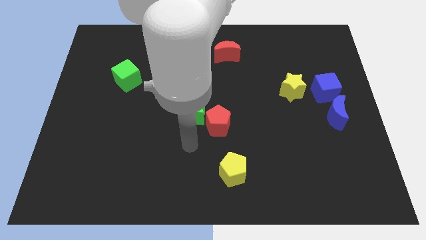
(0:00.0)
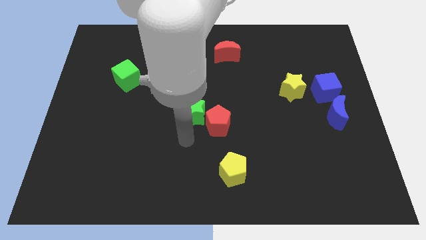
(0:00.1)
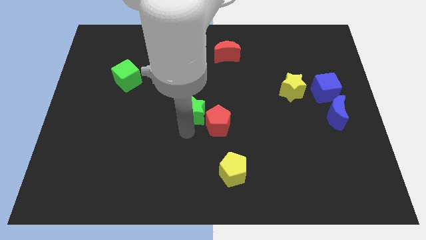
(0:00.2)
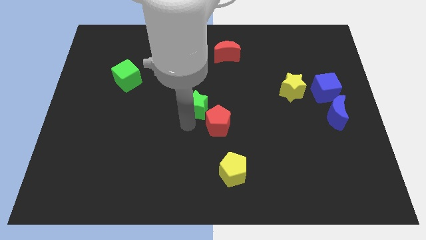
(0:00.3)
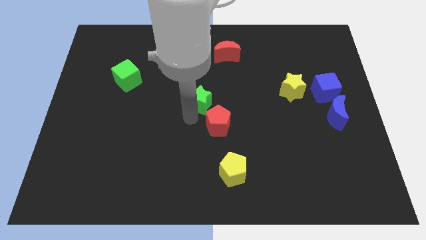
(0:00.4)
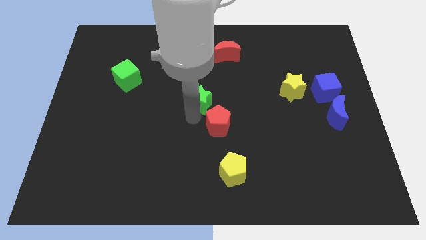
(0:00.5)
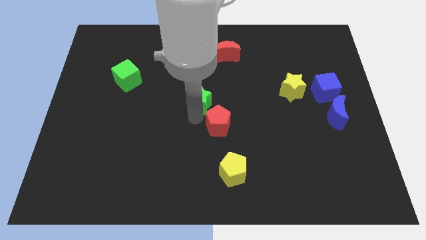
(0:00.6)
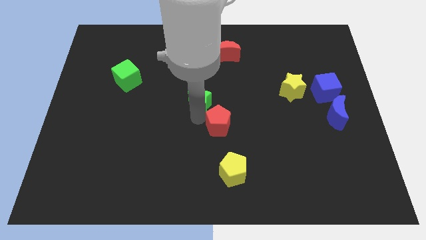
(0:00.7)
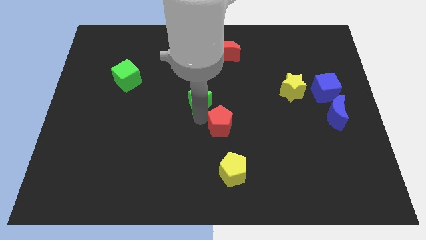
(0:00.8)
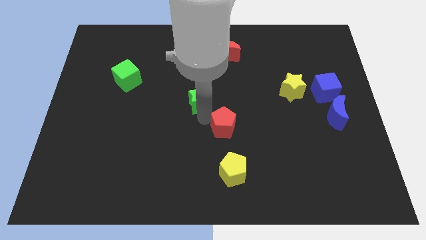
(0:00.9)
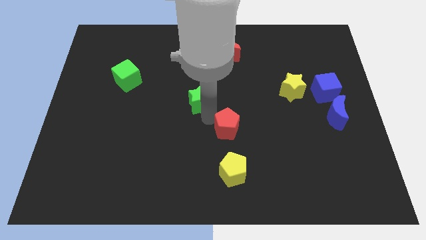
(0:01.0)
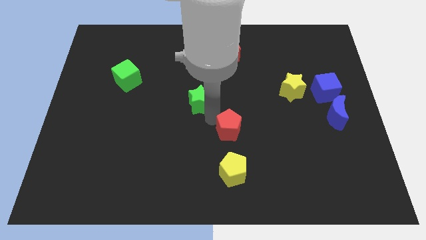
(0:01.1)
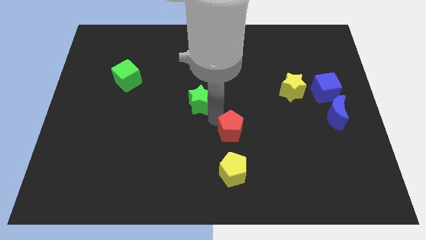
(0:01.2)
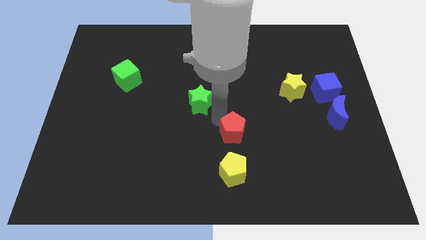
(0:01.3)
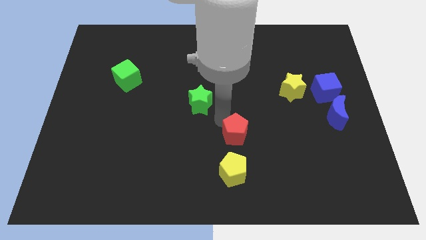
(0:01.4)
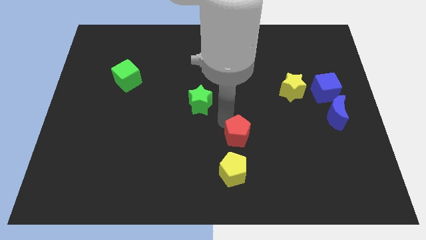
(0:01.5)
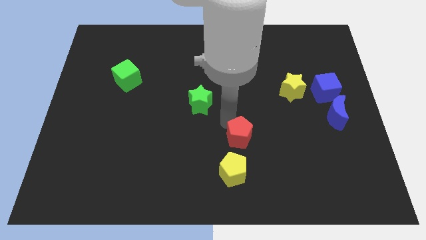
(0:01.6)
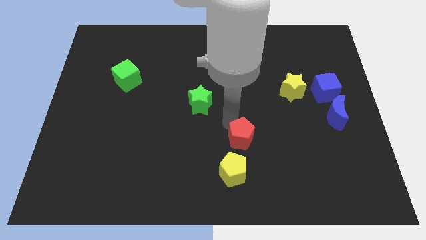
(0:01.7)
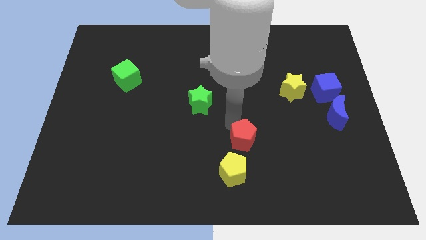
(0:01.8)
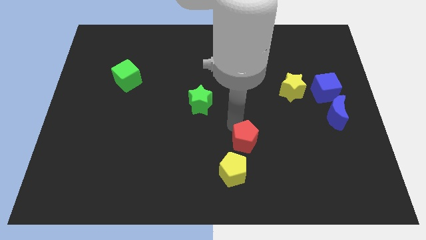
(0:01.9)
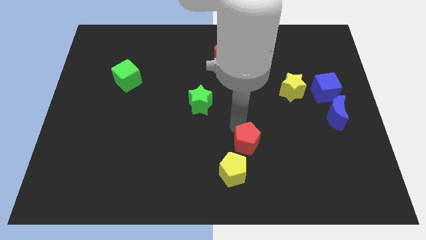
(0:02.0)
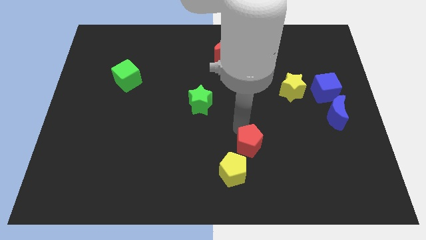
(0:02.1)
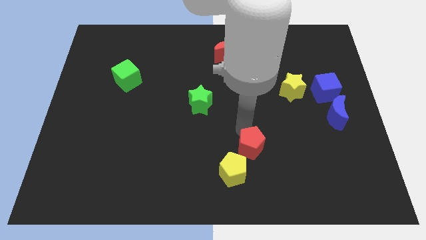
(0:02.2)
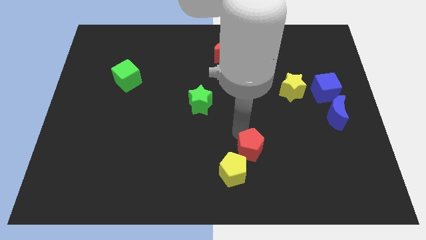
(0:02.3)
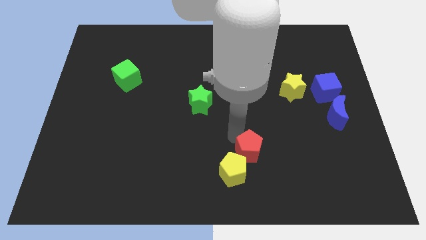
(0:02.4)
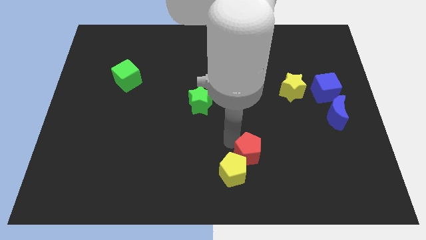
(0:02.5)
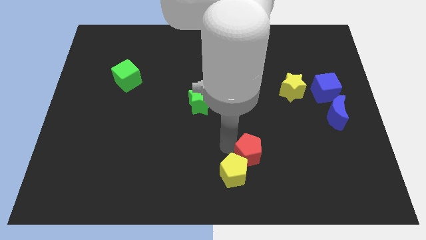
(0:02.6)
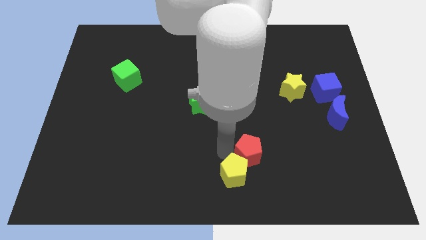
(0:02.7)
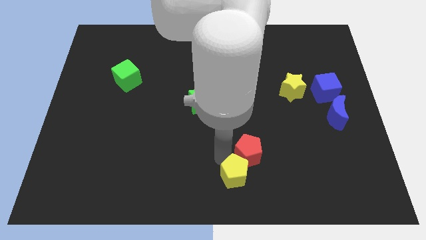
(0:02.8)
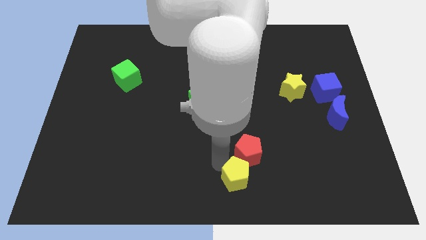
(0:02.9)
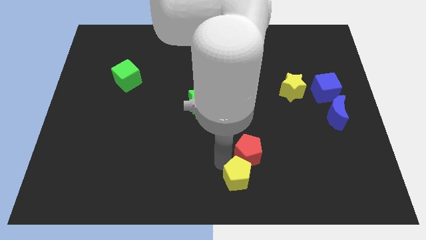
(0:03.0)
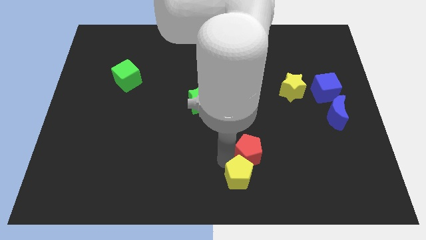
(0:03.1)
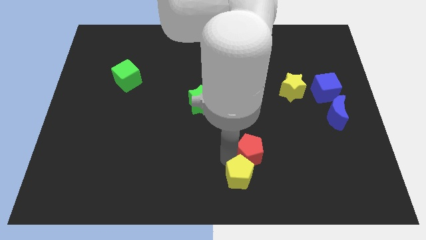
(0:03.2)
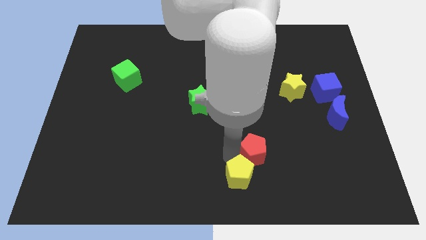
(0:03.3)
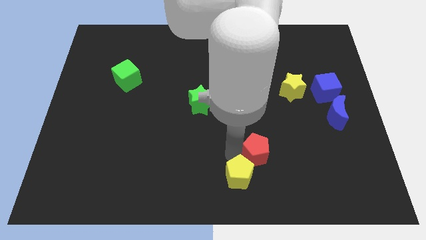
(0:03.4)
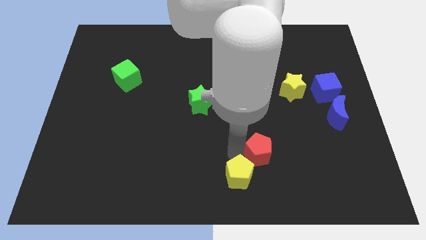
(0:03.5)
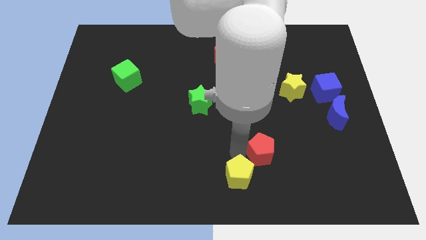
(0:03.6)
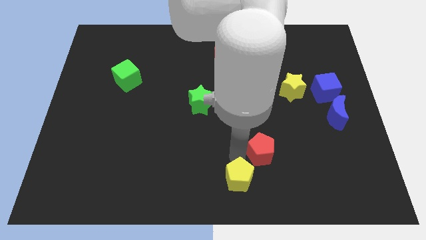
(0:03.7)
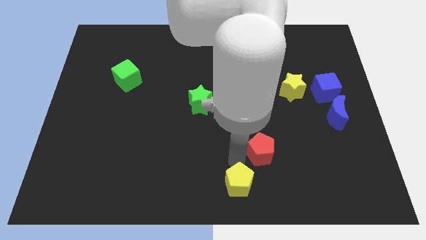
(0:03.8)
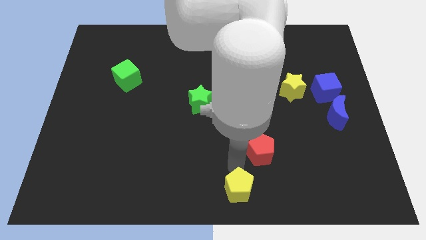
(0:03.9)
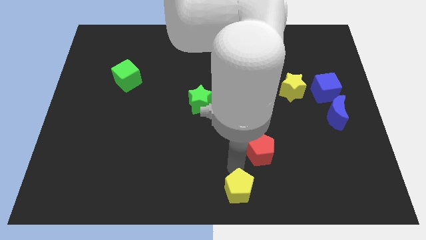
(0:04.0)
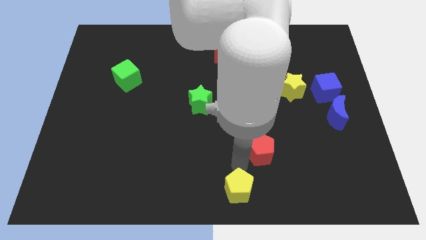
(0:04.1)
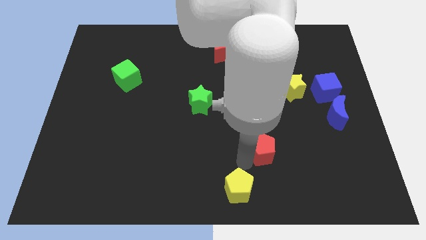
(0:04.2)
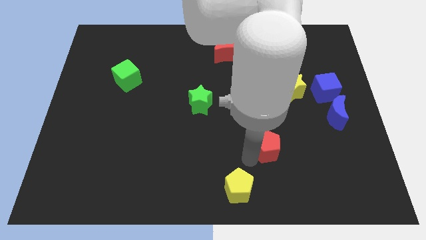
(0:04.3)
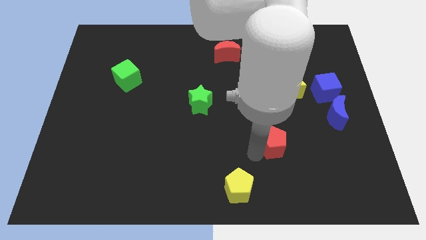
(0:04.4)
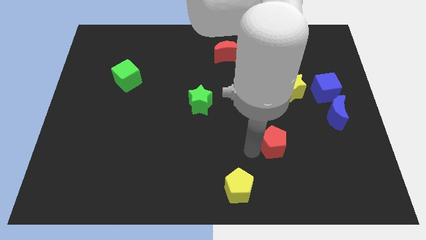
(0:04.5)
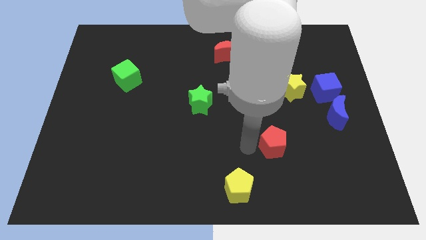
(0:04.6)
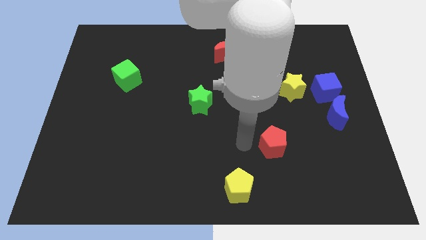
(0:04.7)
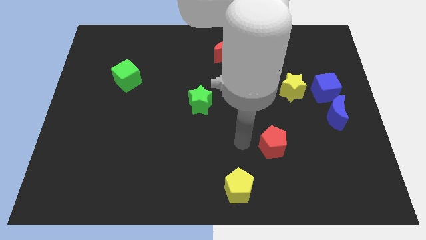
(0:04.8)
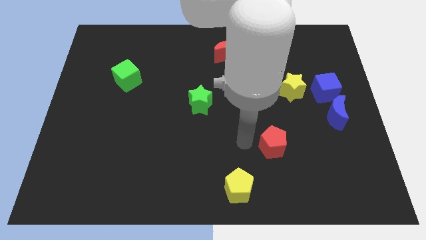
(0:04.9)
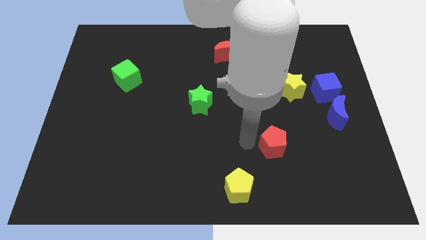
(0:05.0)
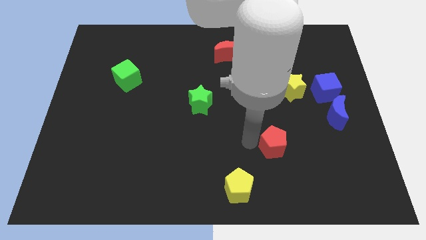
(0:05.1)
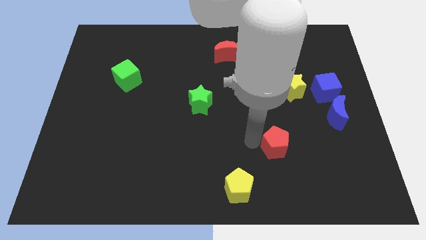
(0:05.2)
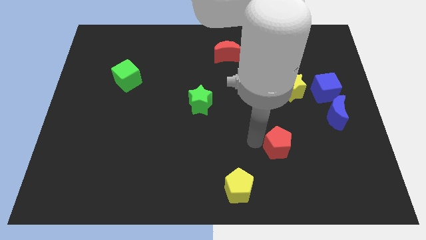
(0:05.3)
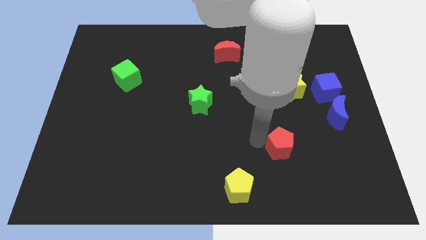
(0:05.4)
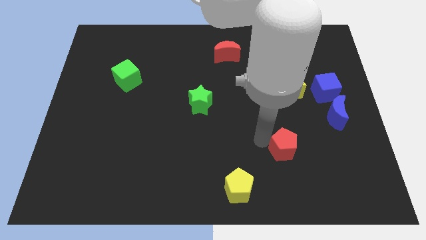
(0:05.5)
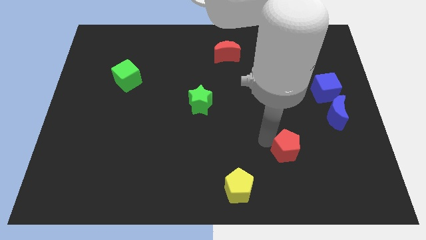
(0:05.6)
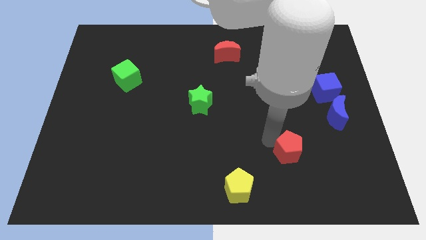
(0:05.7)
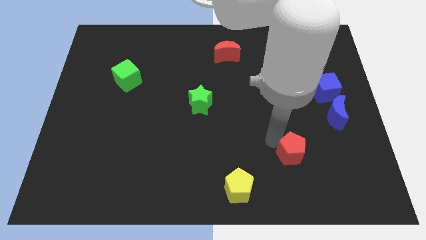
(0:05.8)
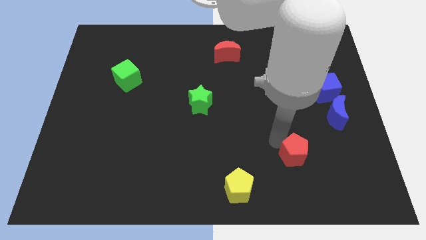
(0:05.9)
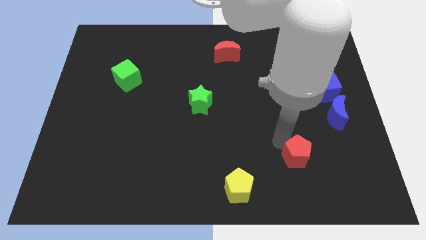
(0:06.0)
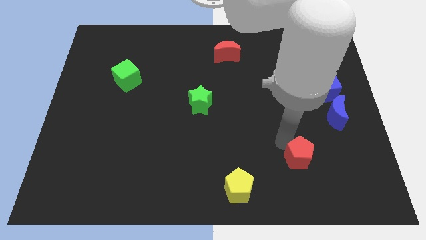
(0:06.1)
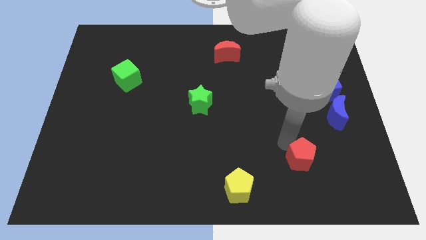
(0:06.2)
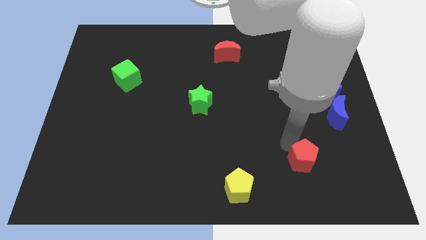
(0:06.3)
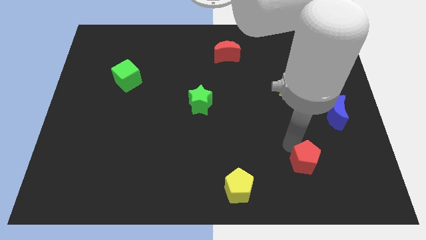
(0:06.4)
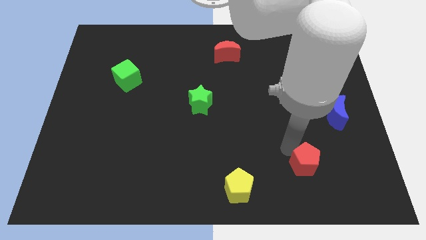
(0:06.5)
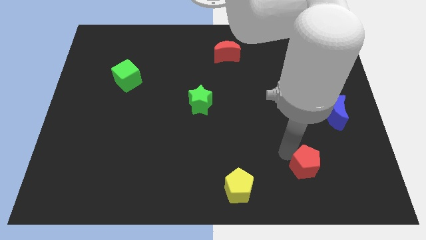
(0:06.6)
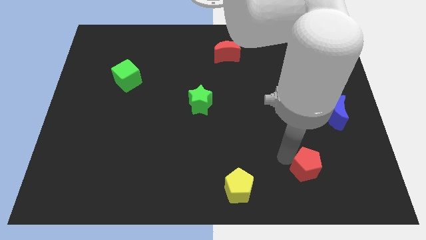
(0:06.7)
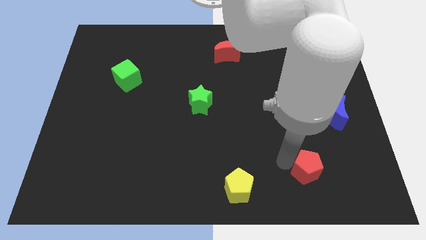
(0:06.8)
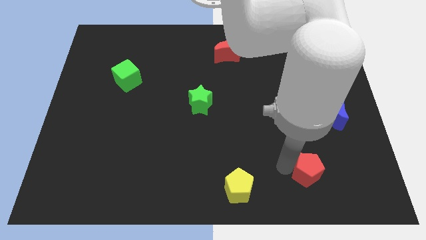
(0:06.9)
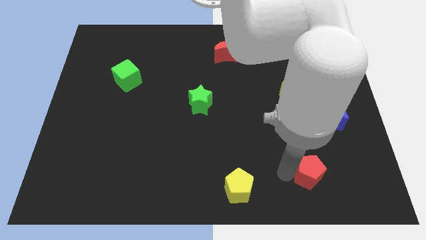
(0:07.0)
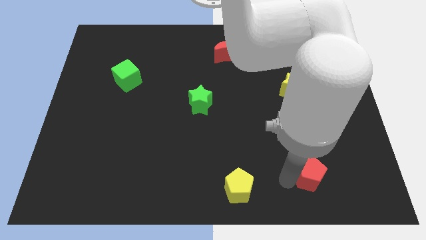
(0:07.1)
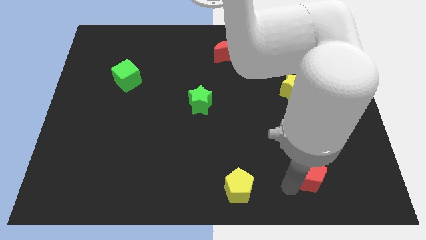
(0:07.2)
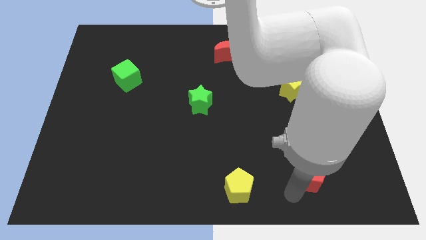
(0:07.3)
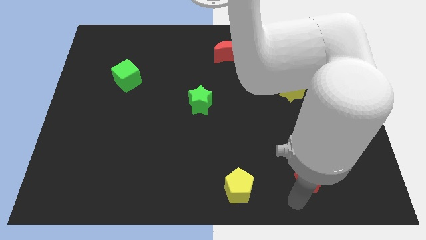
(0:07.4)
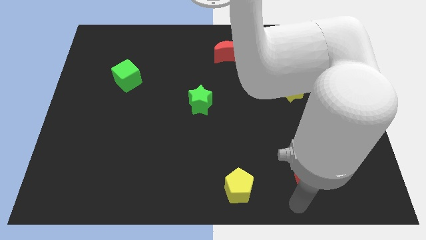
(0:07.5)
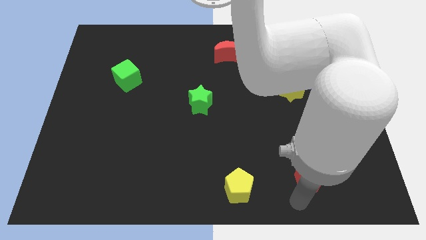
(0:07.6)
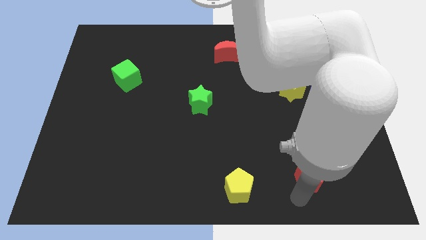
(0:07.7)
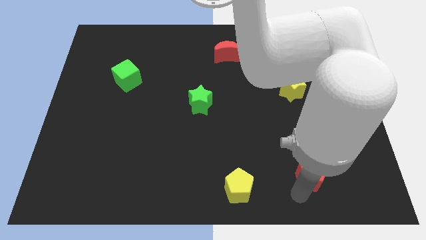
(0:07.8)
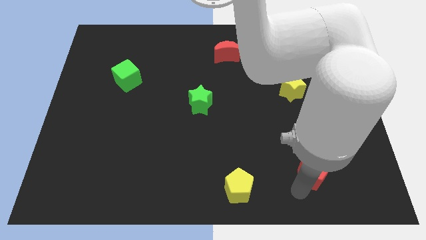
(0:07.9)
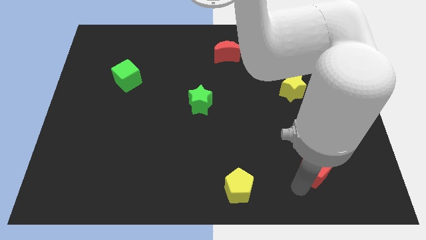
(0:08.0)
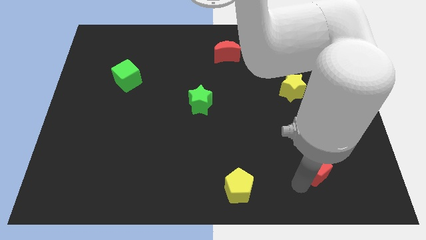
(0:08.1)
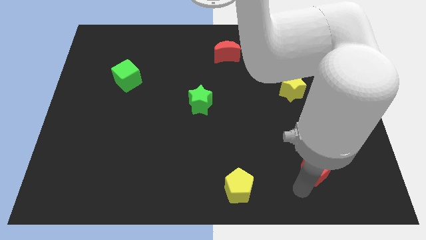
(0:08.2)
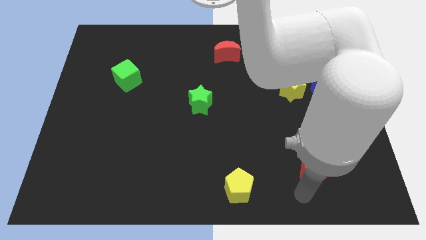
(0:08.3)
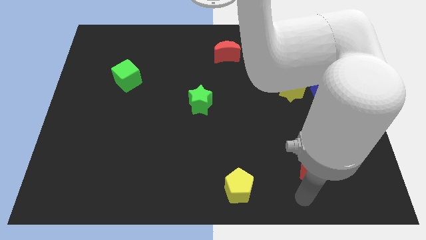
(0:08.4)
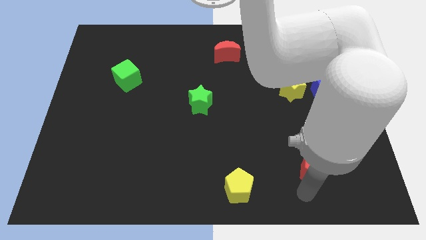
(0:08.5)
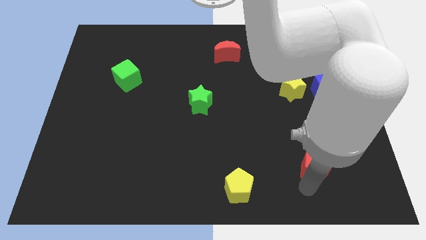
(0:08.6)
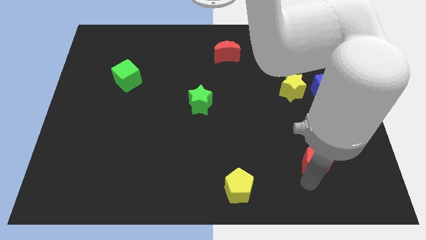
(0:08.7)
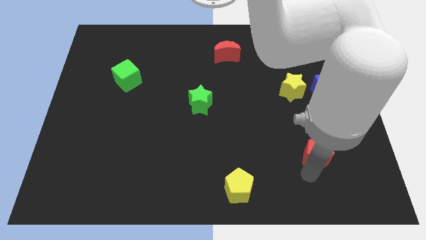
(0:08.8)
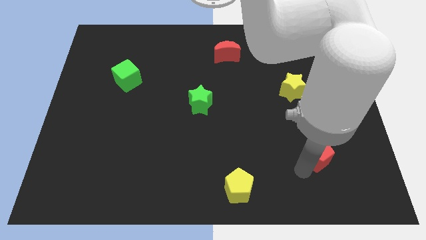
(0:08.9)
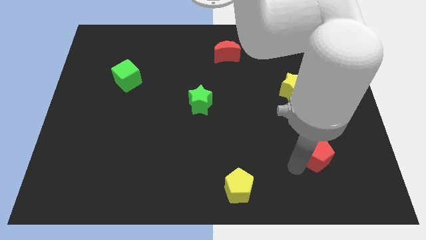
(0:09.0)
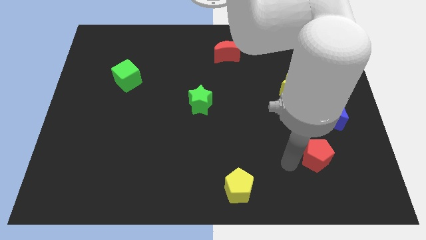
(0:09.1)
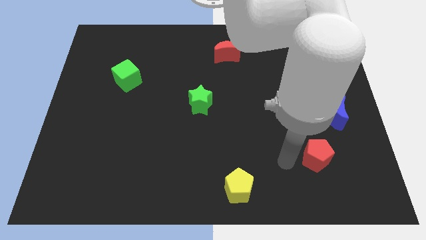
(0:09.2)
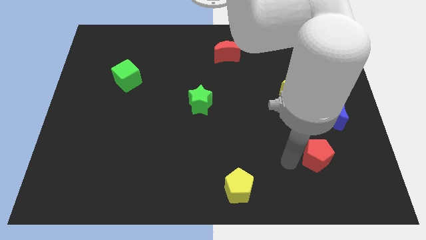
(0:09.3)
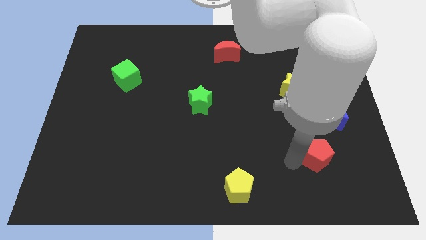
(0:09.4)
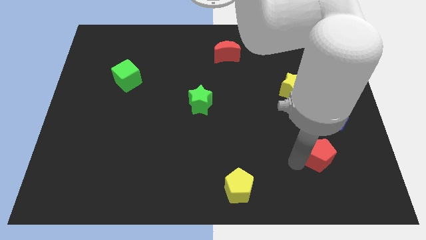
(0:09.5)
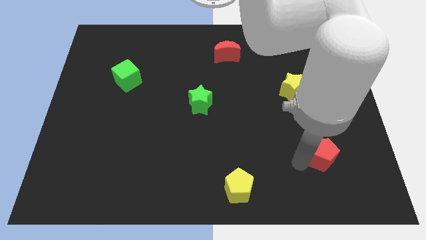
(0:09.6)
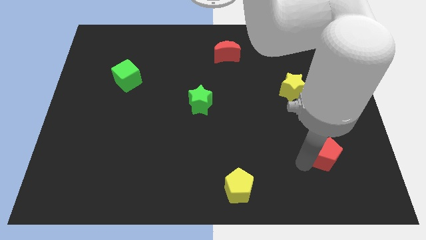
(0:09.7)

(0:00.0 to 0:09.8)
move the red pentagon to the bottom side of the blue moon
